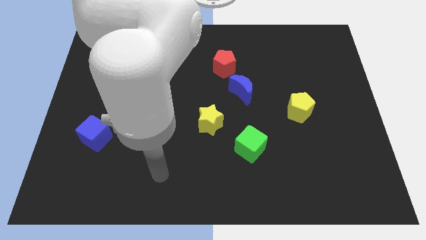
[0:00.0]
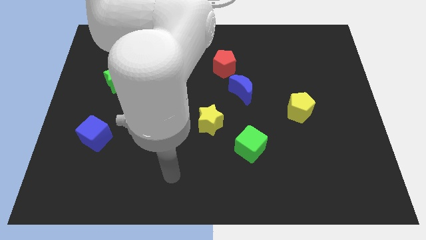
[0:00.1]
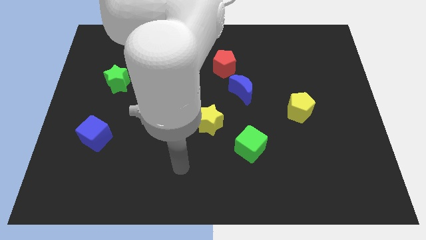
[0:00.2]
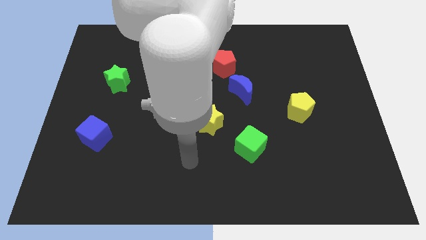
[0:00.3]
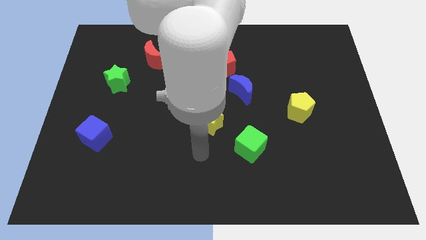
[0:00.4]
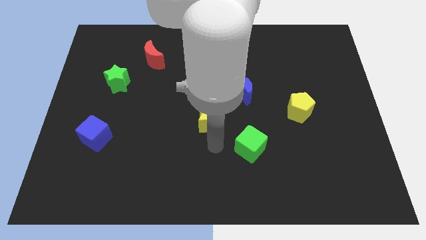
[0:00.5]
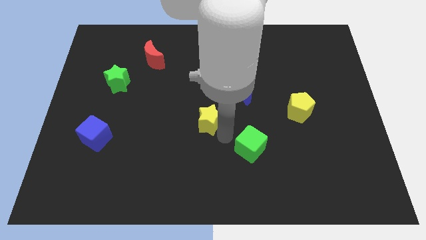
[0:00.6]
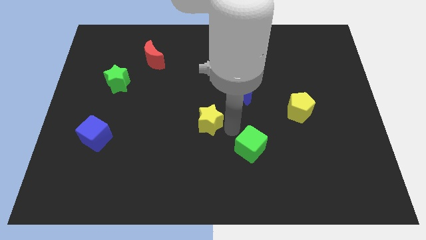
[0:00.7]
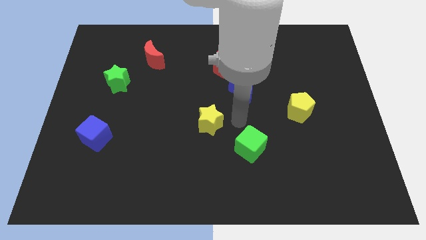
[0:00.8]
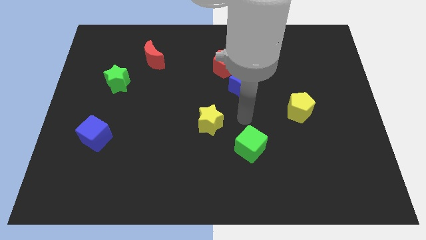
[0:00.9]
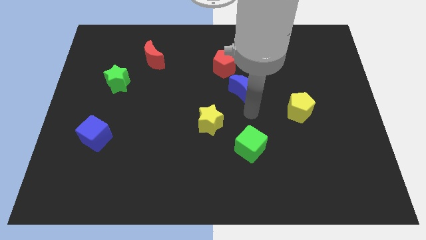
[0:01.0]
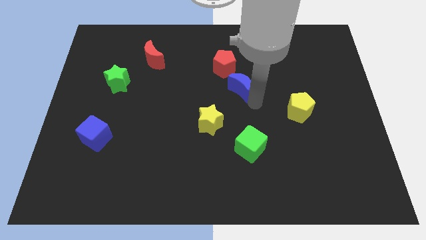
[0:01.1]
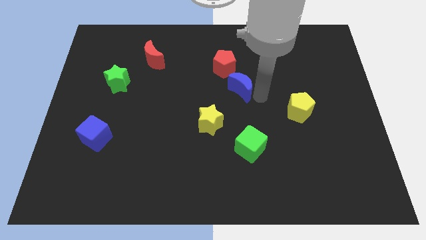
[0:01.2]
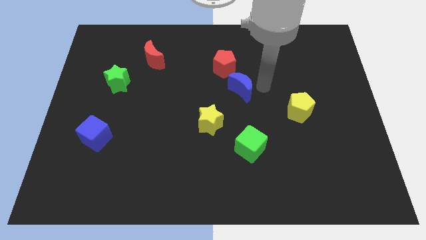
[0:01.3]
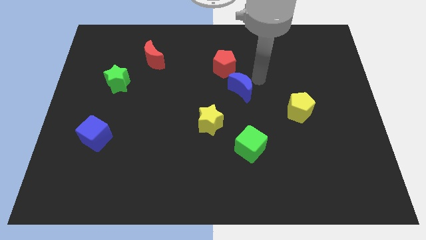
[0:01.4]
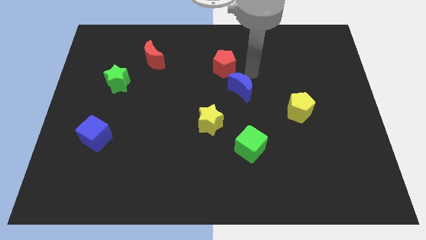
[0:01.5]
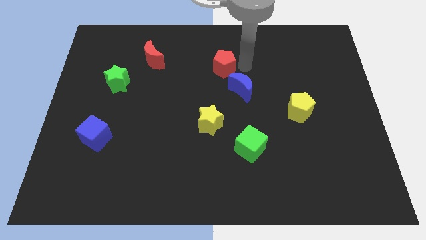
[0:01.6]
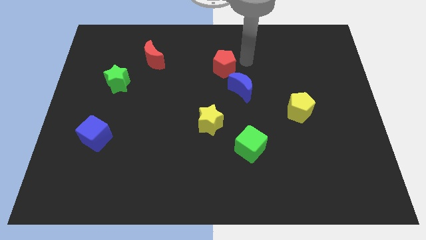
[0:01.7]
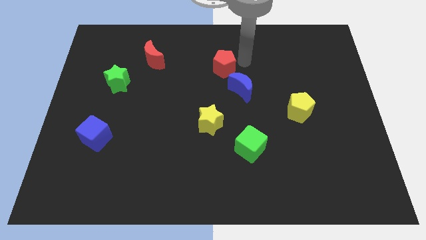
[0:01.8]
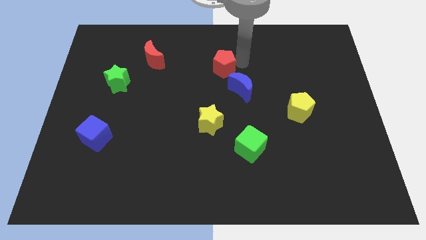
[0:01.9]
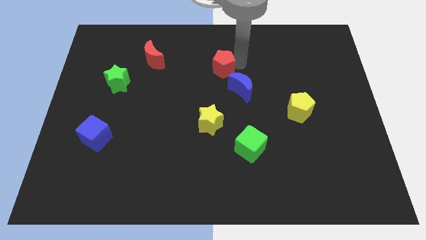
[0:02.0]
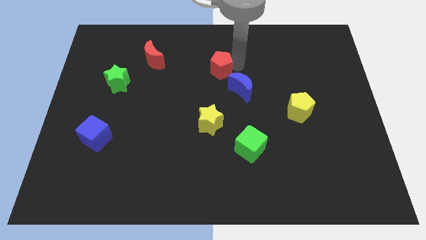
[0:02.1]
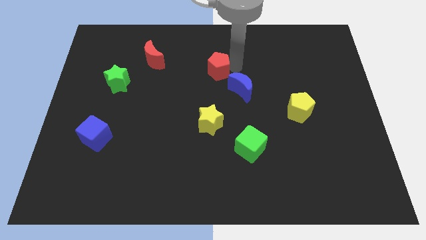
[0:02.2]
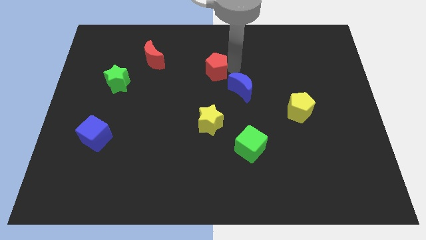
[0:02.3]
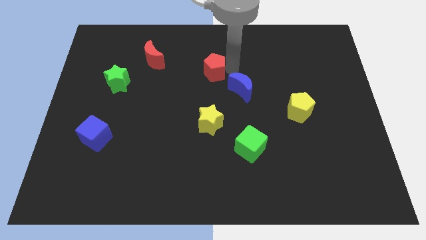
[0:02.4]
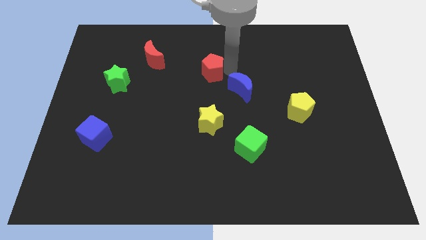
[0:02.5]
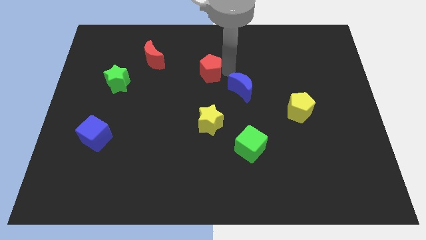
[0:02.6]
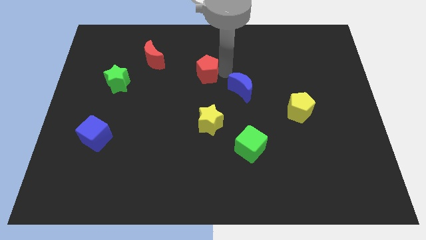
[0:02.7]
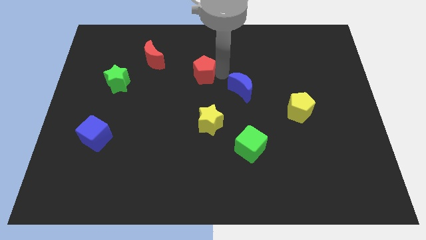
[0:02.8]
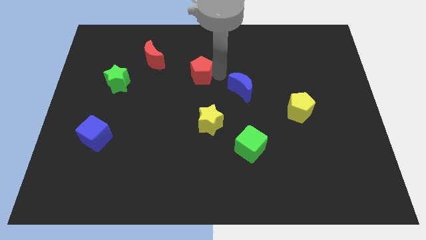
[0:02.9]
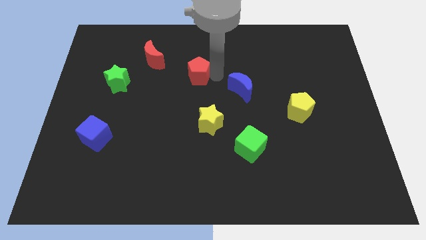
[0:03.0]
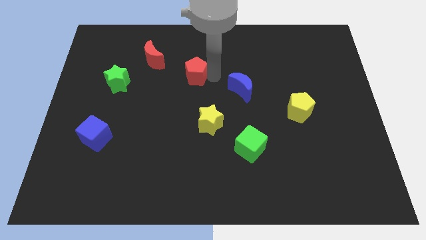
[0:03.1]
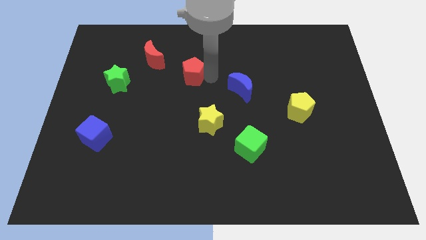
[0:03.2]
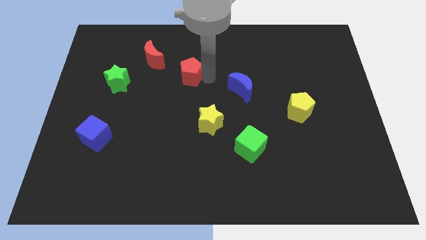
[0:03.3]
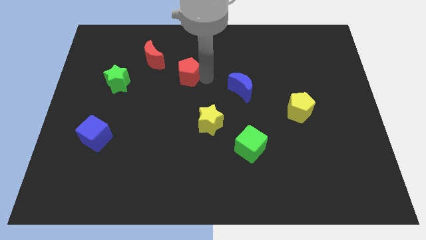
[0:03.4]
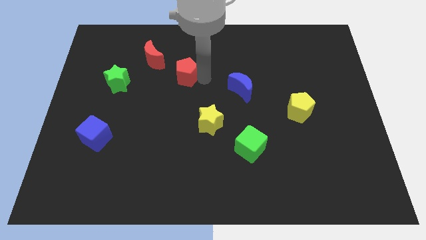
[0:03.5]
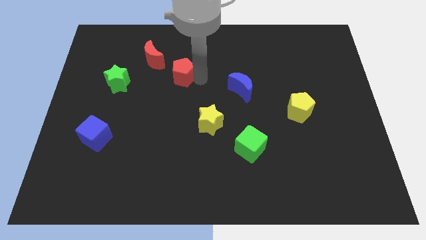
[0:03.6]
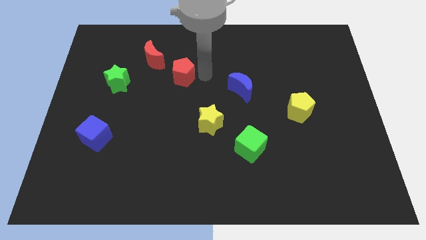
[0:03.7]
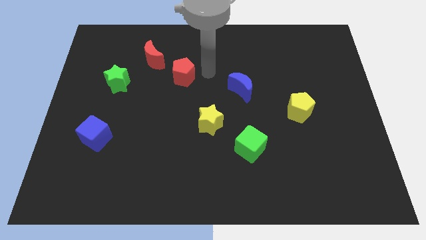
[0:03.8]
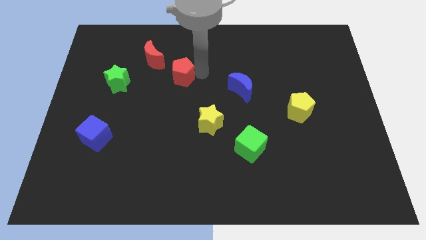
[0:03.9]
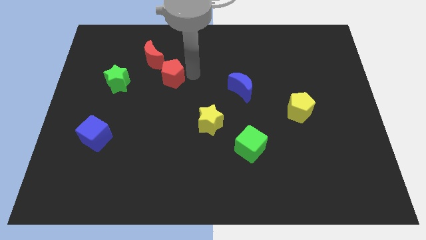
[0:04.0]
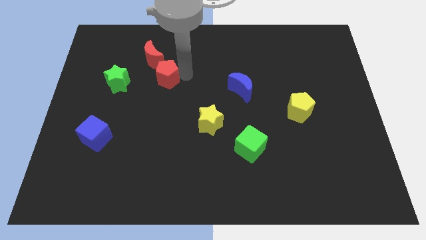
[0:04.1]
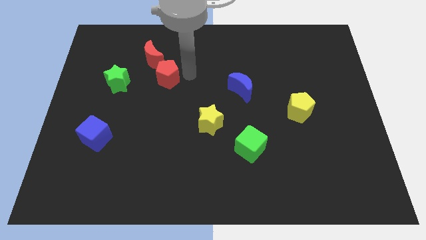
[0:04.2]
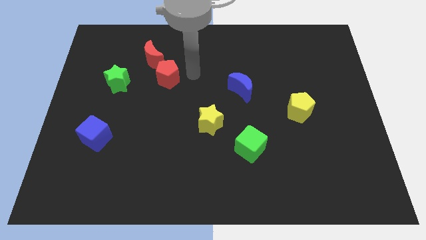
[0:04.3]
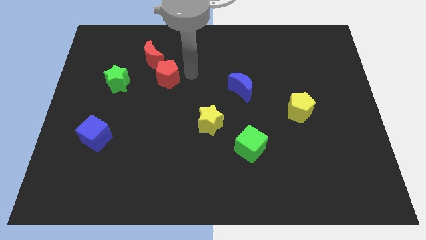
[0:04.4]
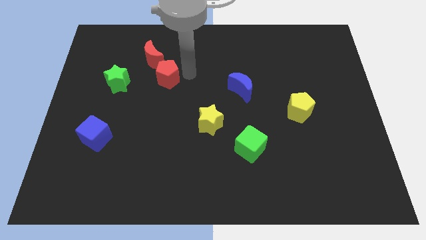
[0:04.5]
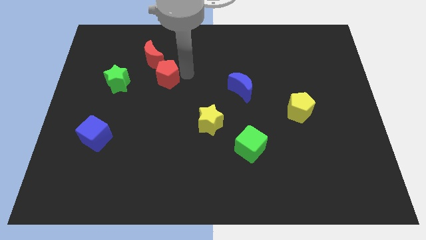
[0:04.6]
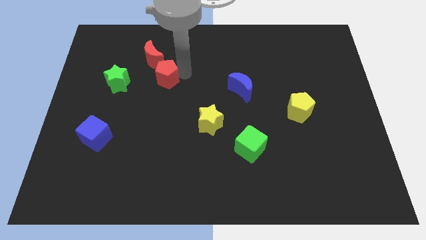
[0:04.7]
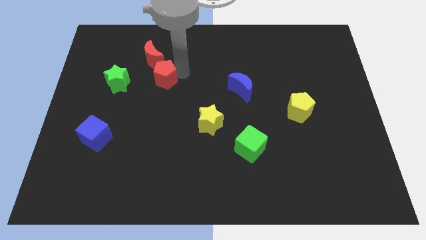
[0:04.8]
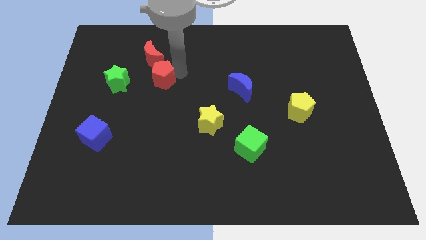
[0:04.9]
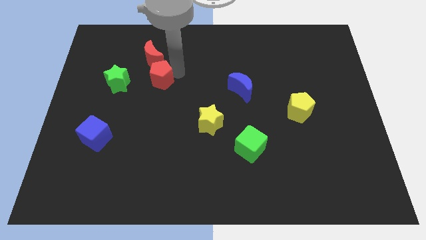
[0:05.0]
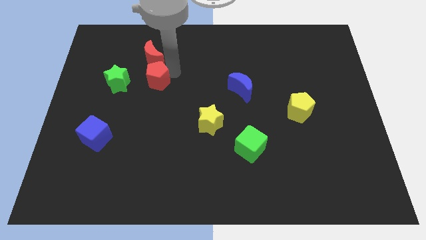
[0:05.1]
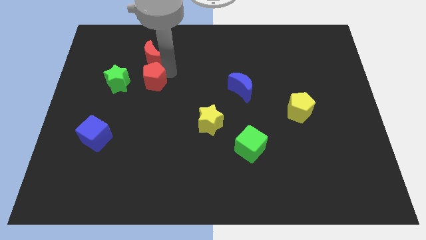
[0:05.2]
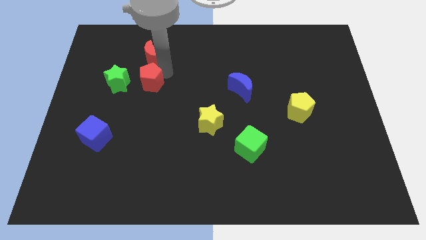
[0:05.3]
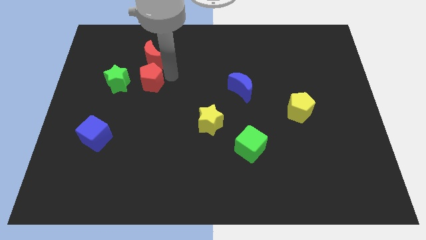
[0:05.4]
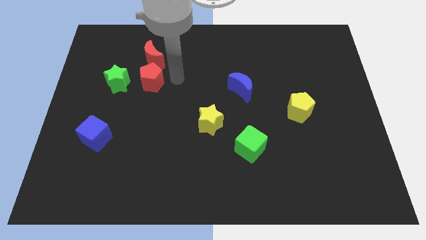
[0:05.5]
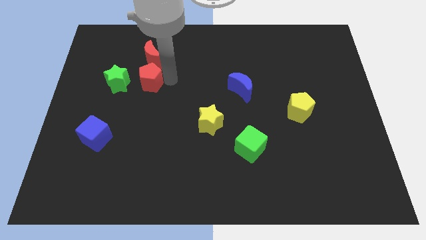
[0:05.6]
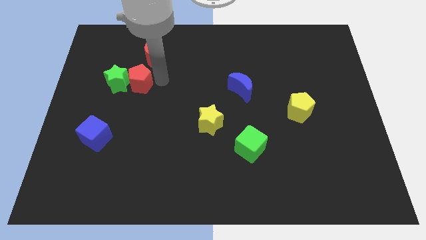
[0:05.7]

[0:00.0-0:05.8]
slide the red pentagon close to the green star

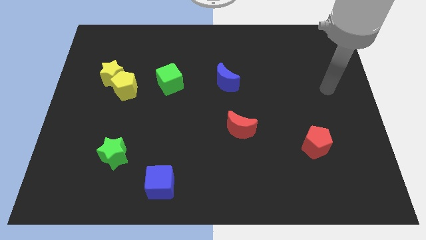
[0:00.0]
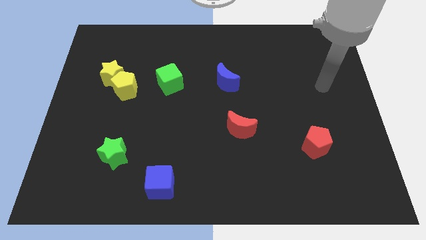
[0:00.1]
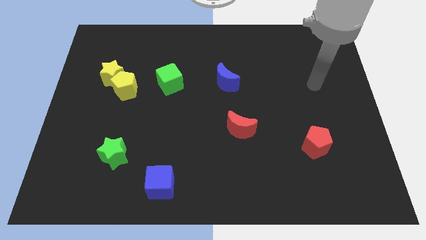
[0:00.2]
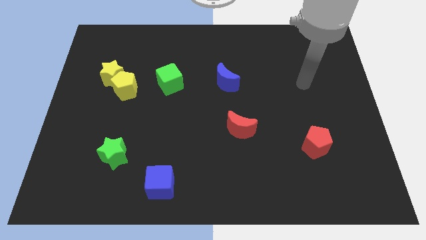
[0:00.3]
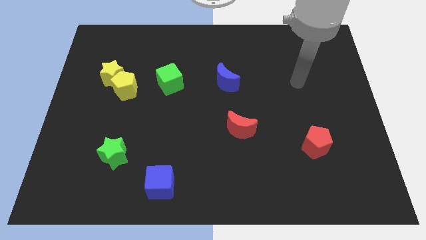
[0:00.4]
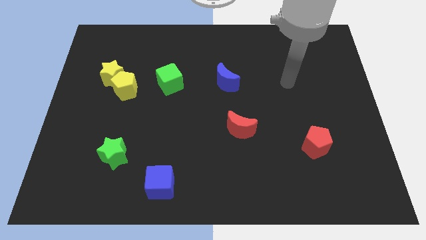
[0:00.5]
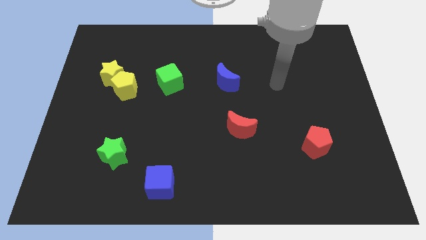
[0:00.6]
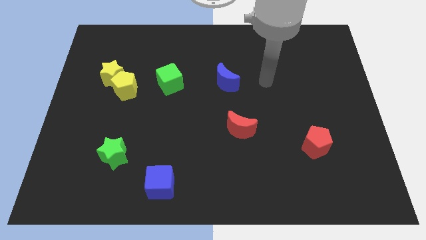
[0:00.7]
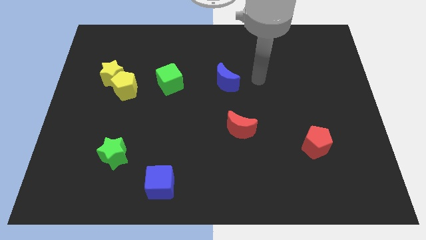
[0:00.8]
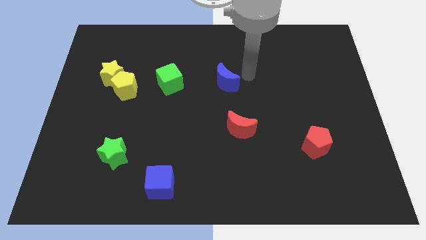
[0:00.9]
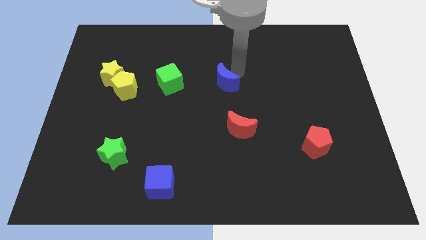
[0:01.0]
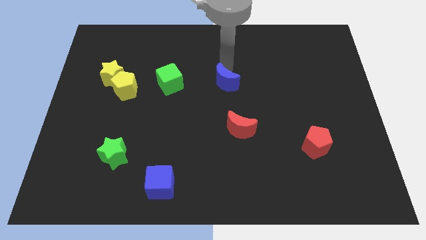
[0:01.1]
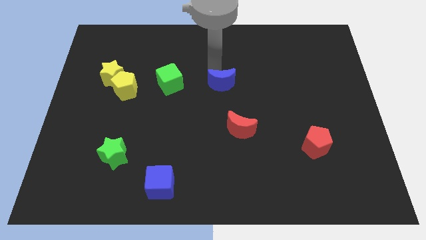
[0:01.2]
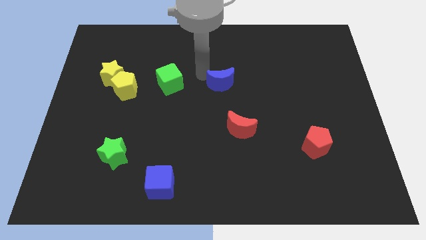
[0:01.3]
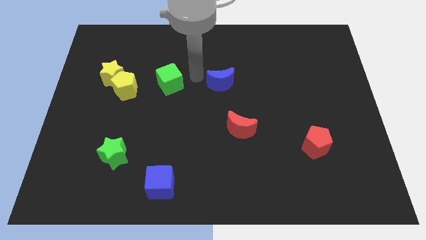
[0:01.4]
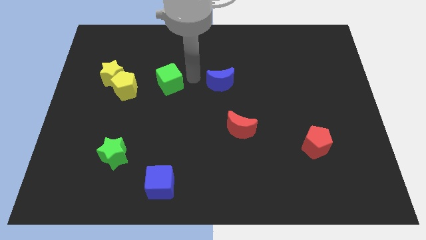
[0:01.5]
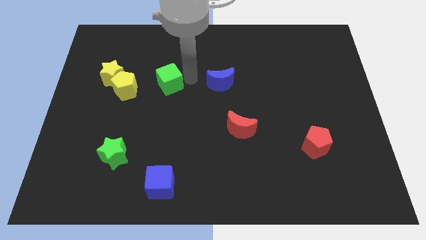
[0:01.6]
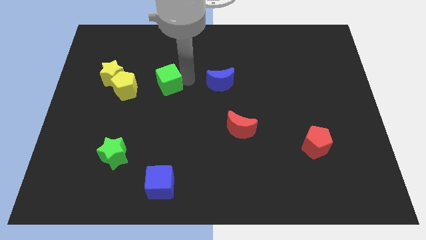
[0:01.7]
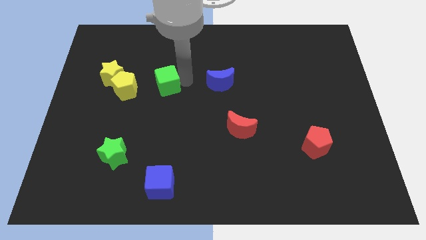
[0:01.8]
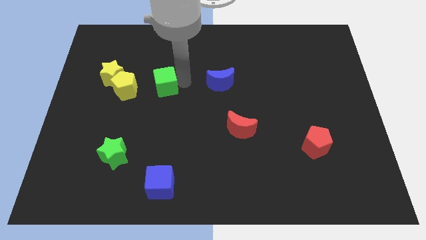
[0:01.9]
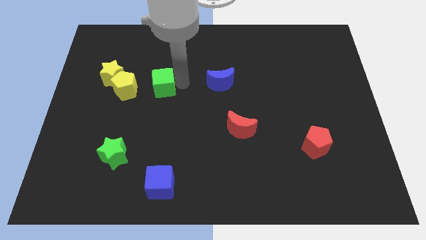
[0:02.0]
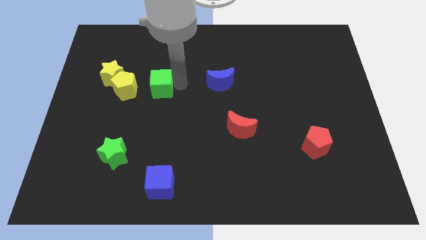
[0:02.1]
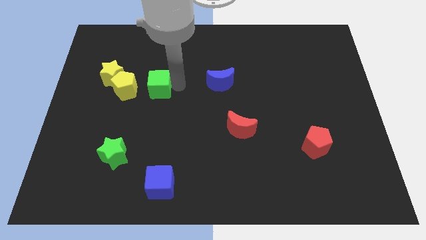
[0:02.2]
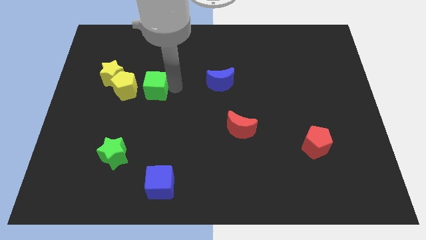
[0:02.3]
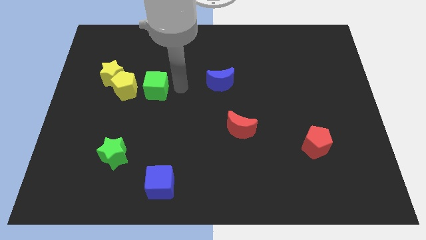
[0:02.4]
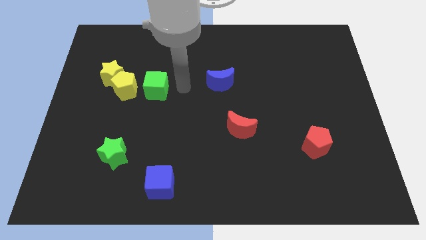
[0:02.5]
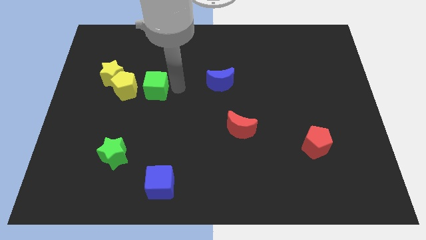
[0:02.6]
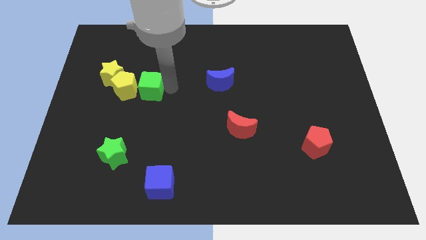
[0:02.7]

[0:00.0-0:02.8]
push the green cube to the yellow pentagon
